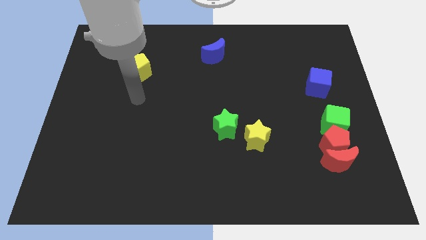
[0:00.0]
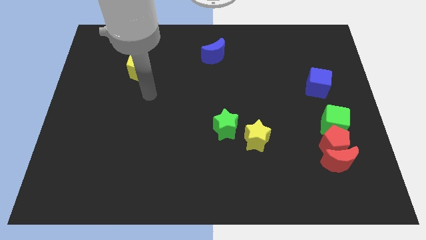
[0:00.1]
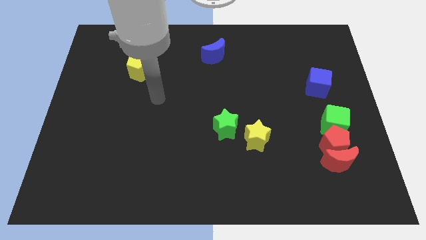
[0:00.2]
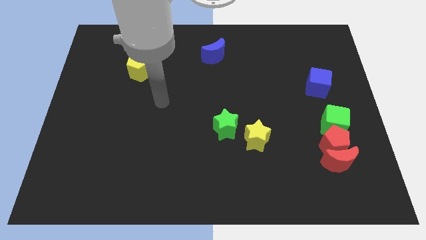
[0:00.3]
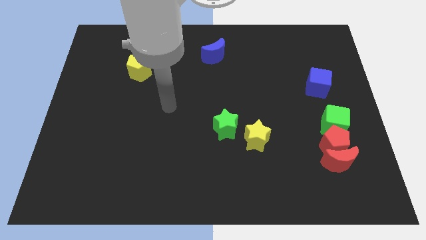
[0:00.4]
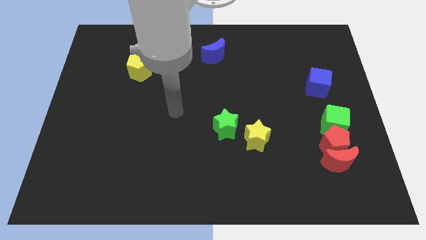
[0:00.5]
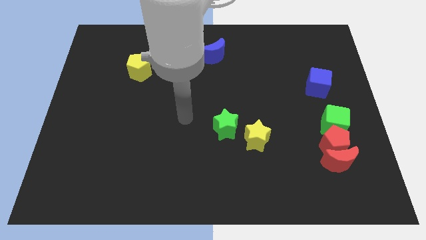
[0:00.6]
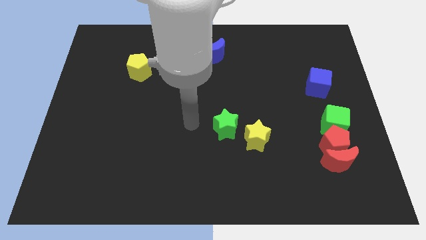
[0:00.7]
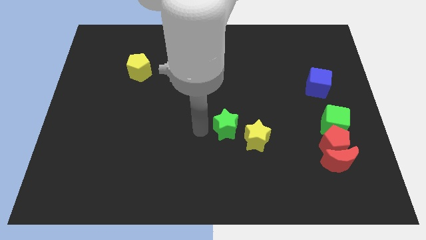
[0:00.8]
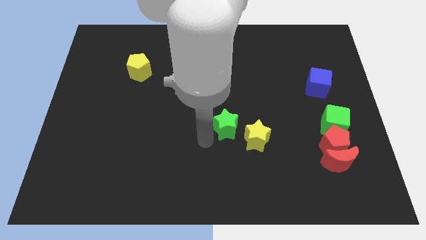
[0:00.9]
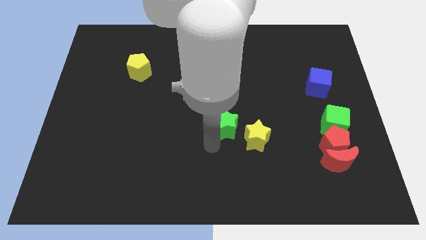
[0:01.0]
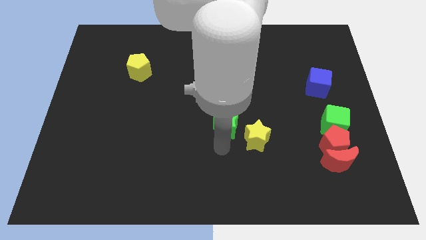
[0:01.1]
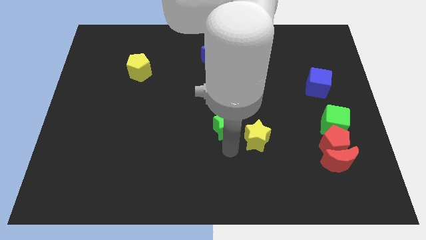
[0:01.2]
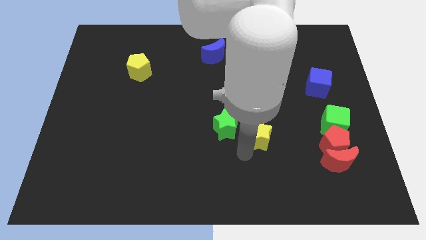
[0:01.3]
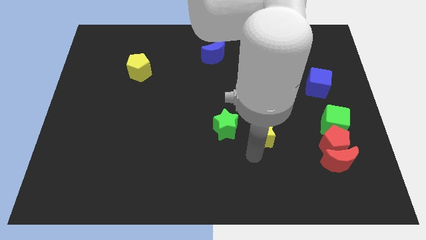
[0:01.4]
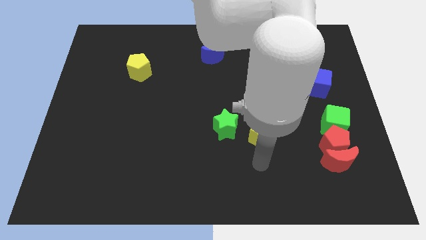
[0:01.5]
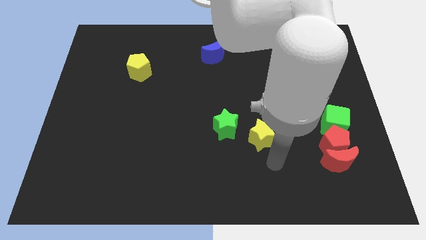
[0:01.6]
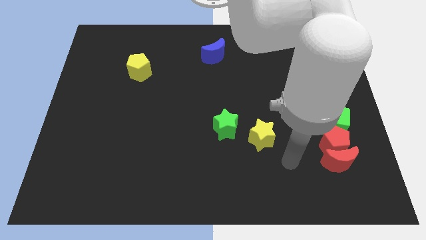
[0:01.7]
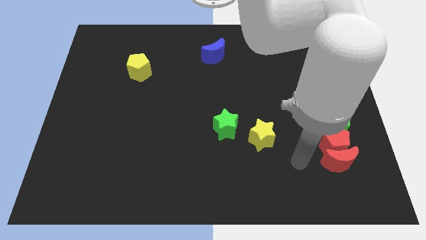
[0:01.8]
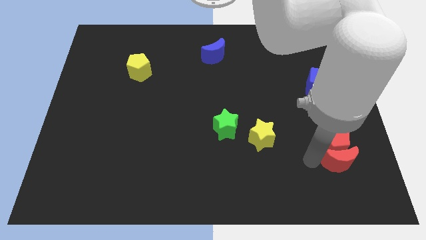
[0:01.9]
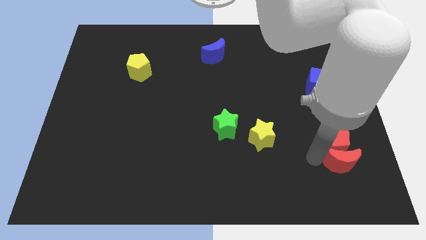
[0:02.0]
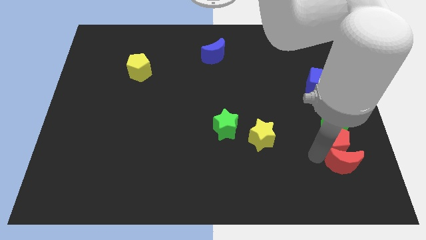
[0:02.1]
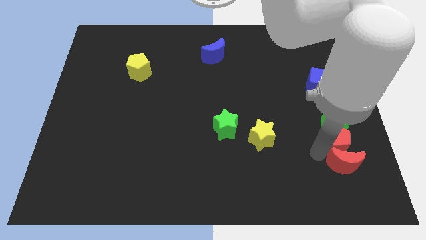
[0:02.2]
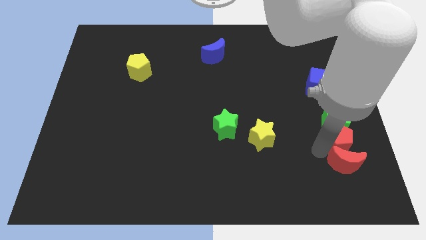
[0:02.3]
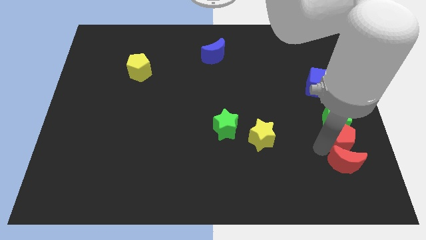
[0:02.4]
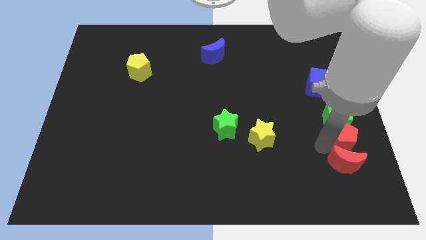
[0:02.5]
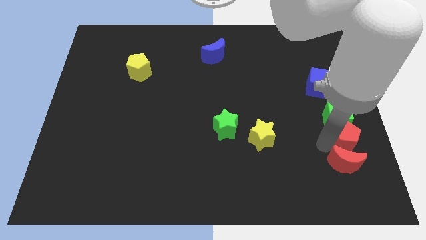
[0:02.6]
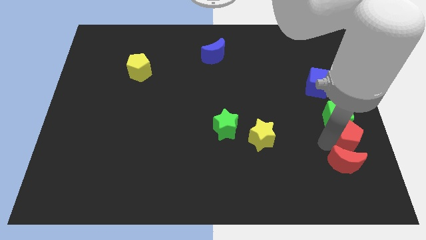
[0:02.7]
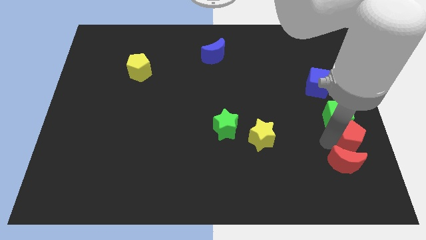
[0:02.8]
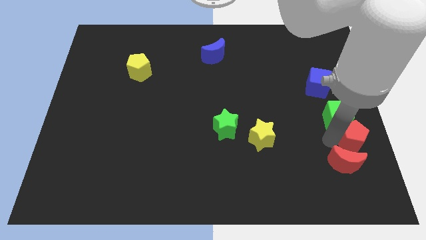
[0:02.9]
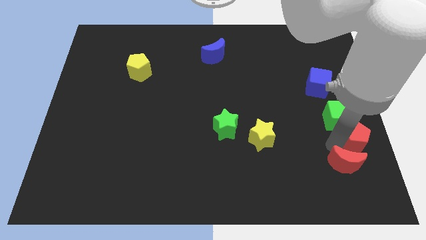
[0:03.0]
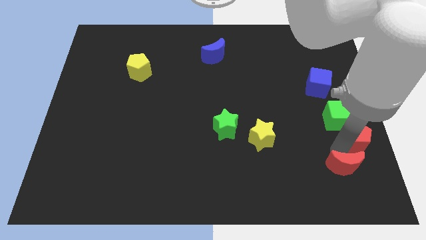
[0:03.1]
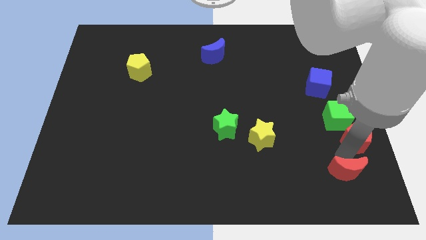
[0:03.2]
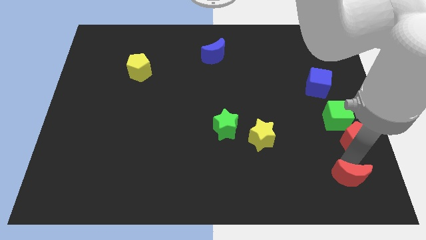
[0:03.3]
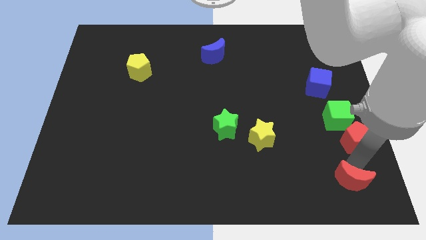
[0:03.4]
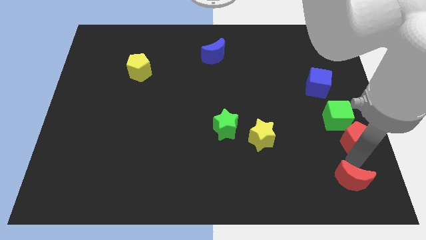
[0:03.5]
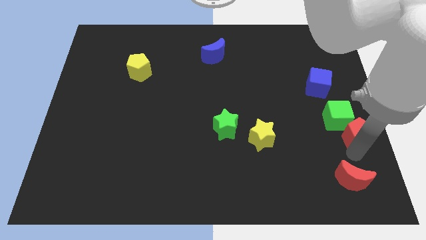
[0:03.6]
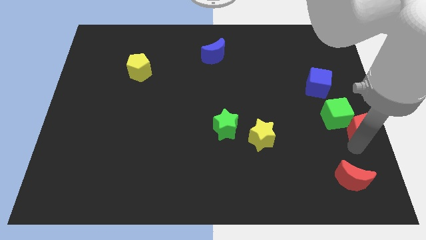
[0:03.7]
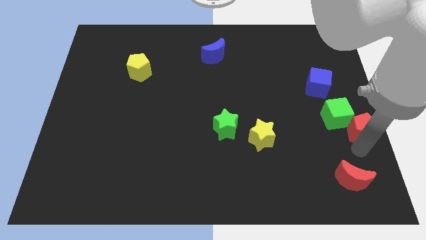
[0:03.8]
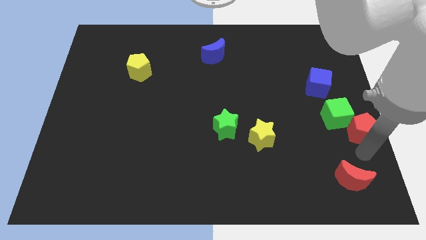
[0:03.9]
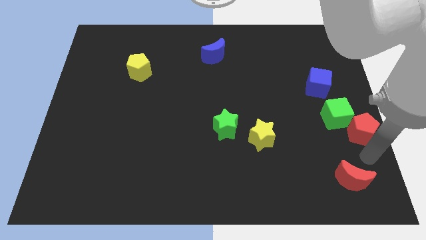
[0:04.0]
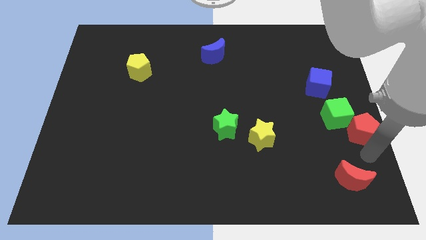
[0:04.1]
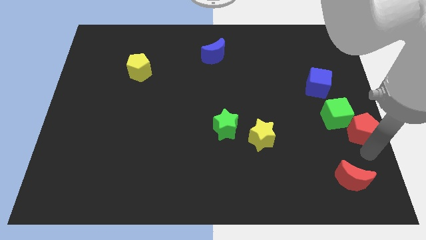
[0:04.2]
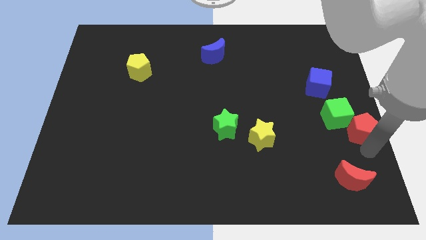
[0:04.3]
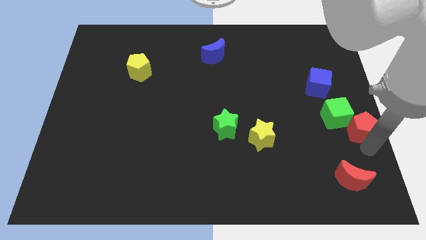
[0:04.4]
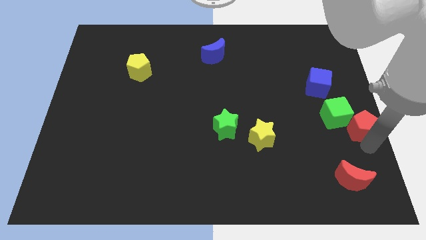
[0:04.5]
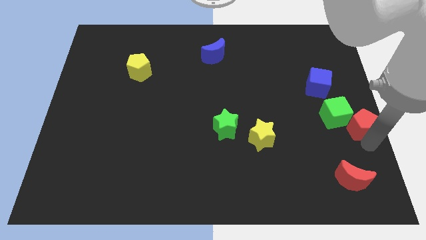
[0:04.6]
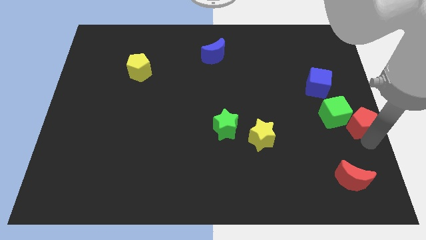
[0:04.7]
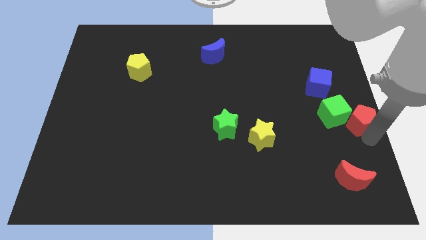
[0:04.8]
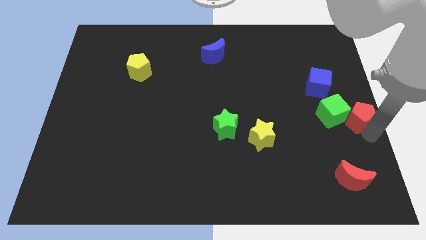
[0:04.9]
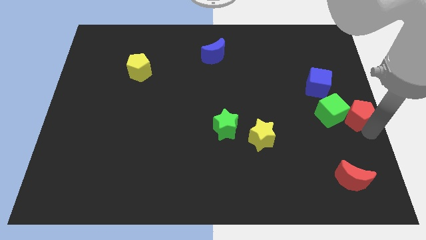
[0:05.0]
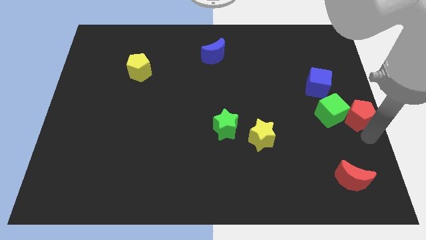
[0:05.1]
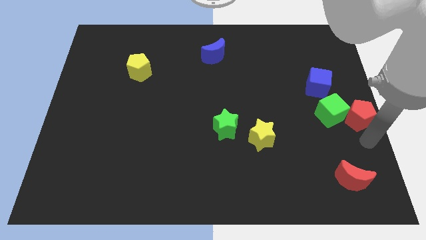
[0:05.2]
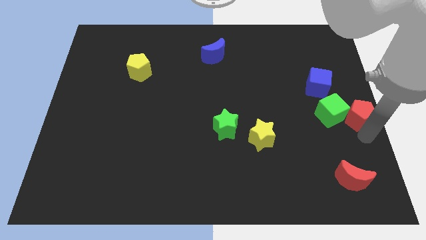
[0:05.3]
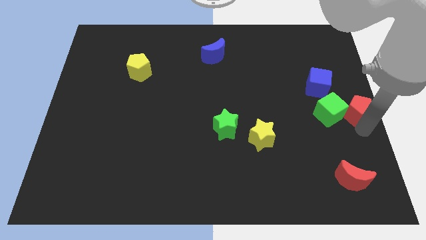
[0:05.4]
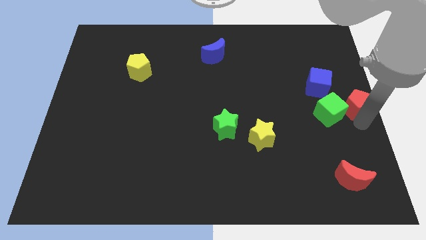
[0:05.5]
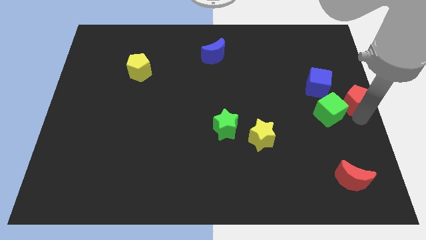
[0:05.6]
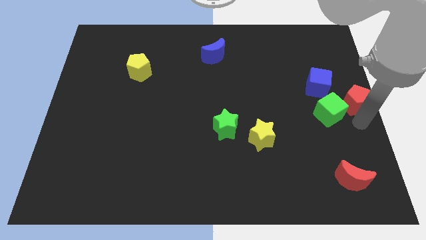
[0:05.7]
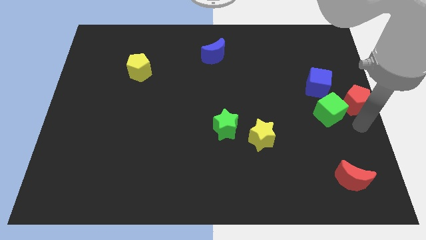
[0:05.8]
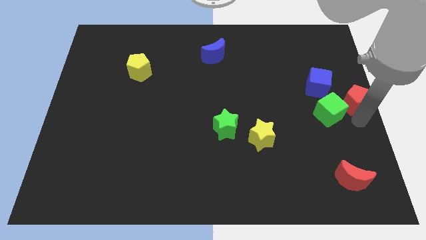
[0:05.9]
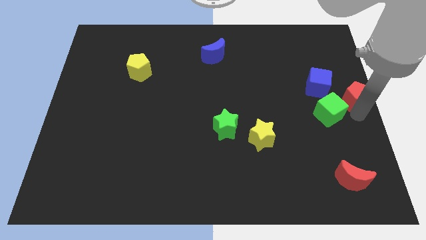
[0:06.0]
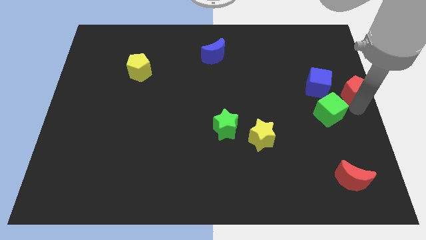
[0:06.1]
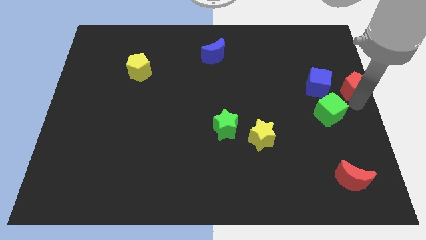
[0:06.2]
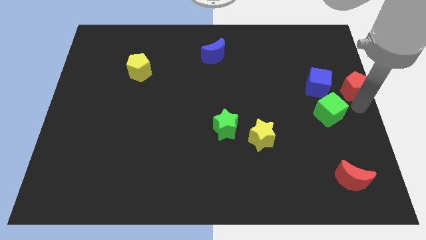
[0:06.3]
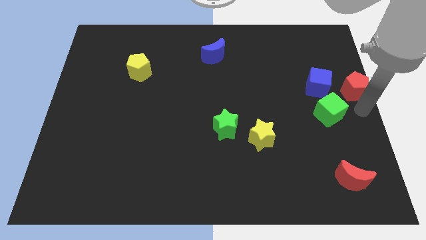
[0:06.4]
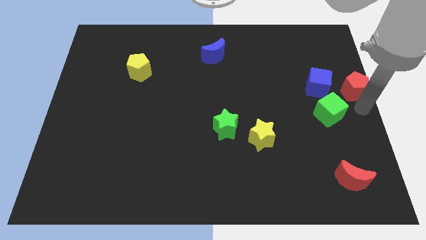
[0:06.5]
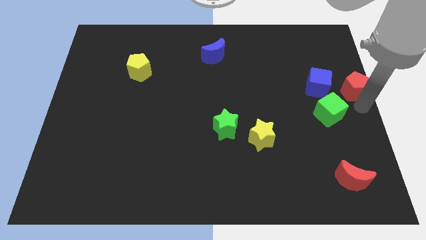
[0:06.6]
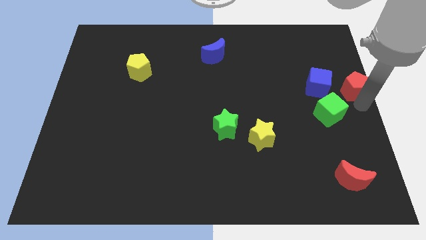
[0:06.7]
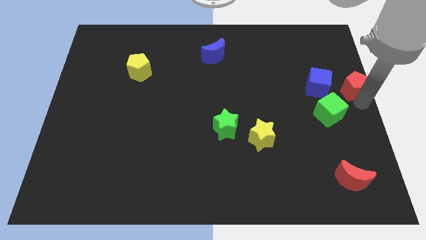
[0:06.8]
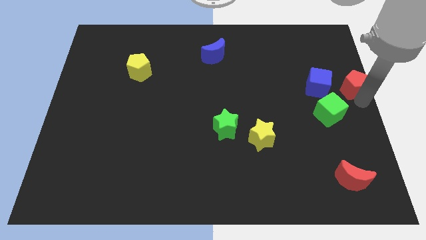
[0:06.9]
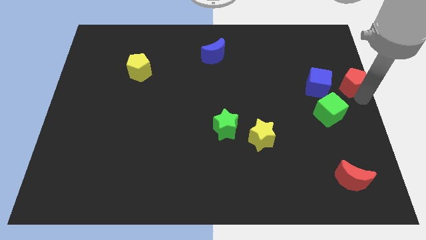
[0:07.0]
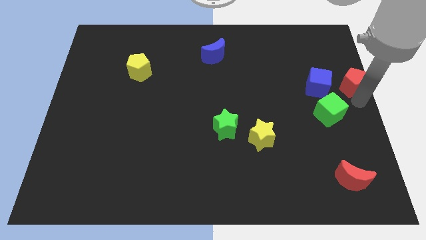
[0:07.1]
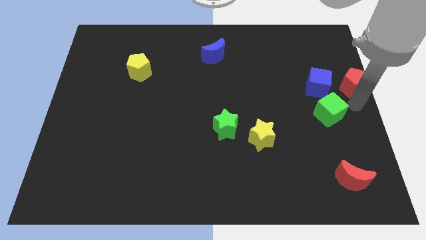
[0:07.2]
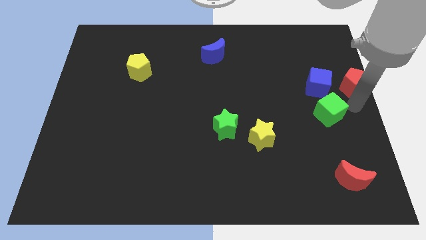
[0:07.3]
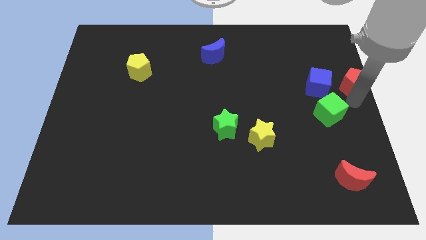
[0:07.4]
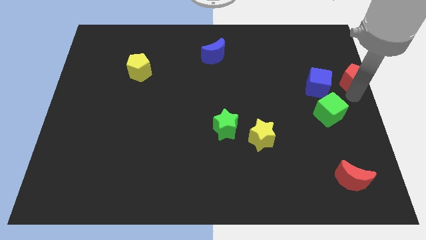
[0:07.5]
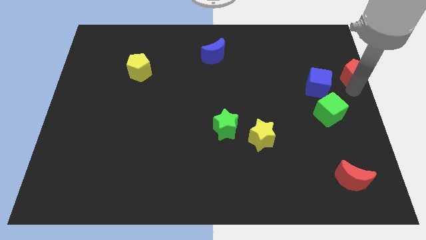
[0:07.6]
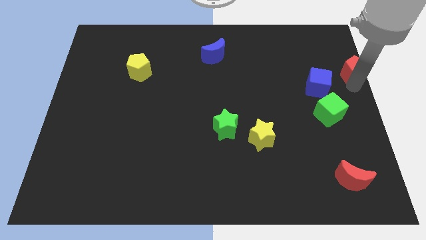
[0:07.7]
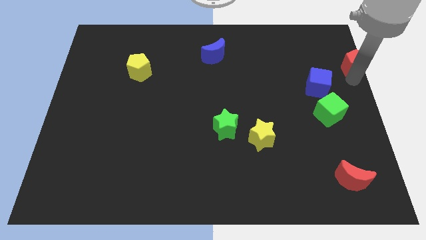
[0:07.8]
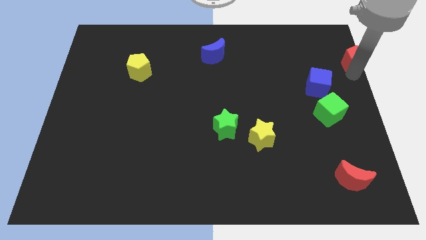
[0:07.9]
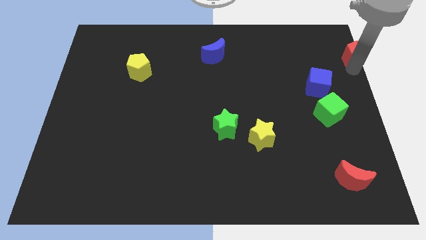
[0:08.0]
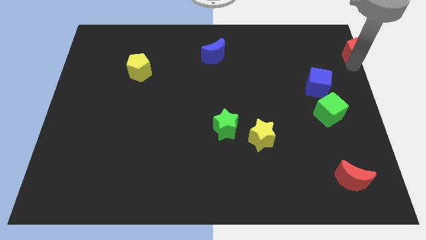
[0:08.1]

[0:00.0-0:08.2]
push the red pentagon to the upper right corner
